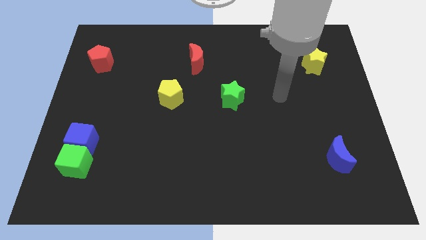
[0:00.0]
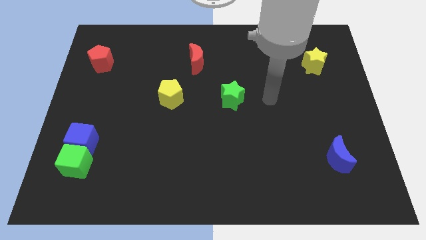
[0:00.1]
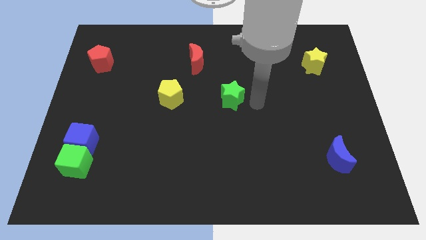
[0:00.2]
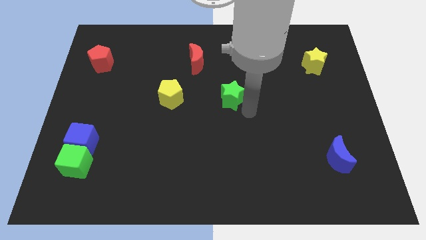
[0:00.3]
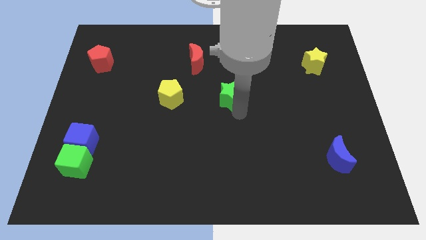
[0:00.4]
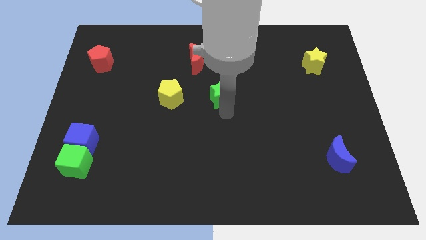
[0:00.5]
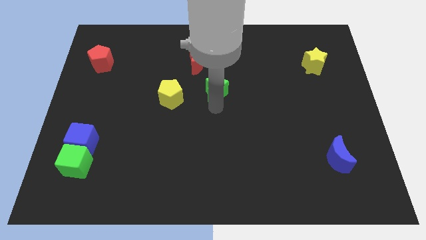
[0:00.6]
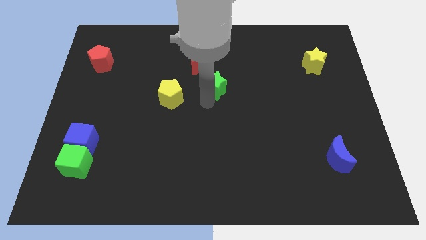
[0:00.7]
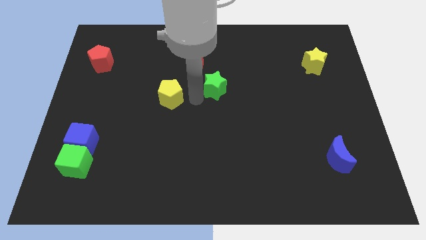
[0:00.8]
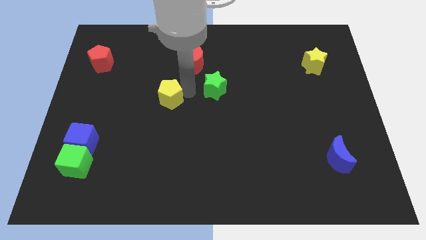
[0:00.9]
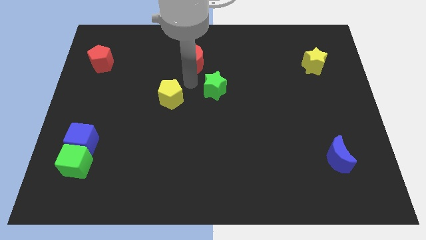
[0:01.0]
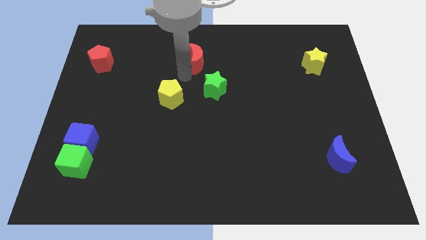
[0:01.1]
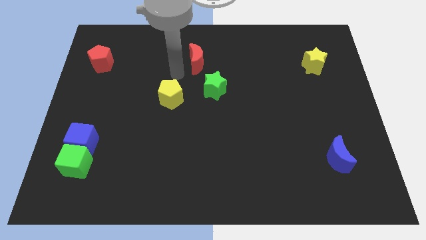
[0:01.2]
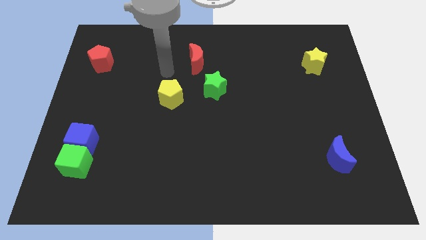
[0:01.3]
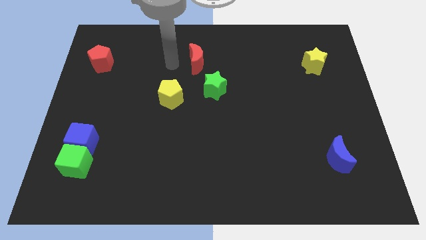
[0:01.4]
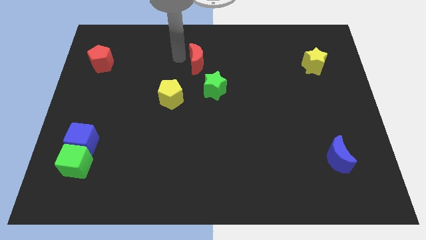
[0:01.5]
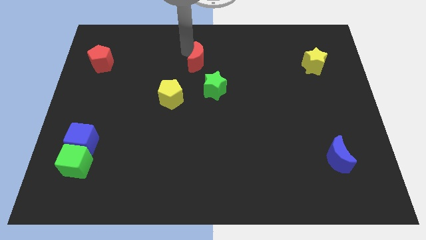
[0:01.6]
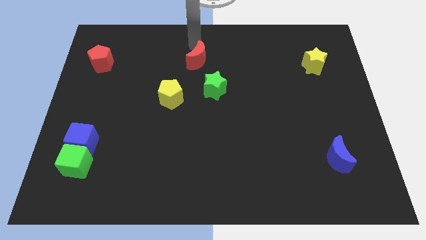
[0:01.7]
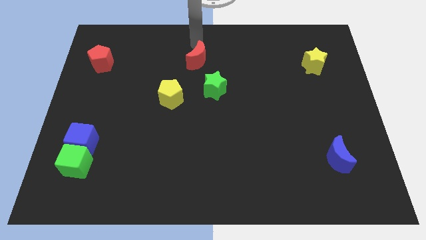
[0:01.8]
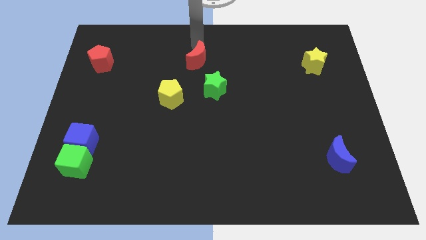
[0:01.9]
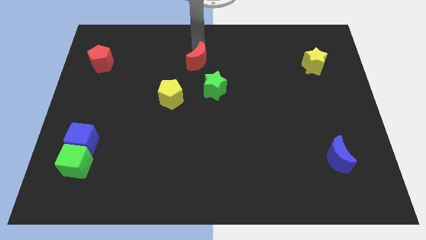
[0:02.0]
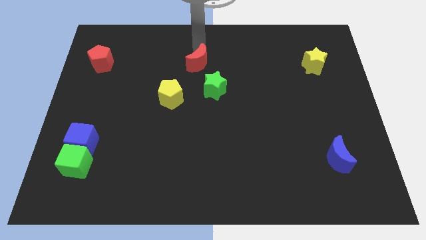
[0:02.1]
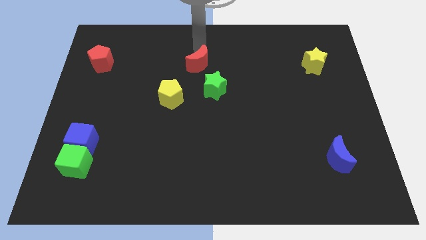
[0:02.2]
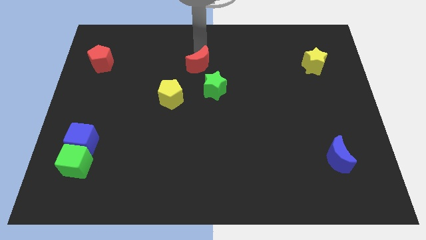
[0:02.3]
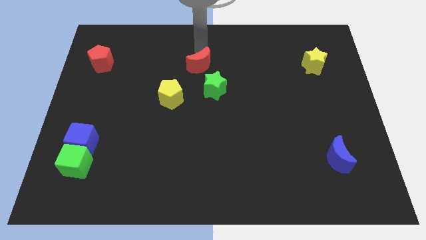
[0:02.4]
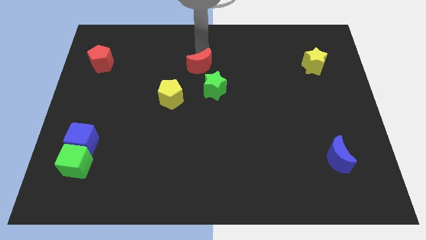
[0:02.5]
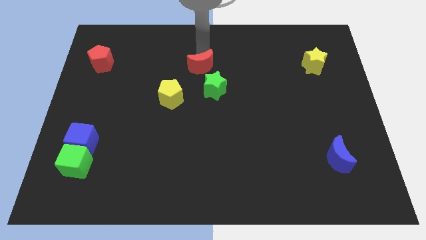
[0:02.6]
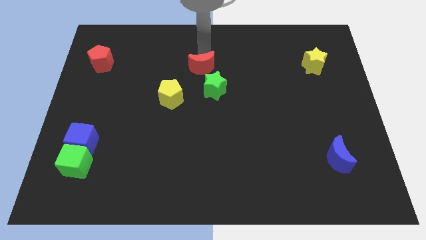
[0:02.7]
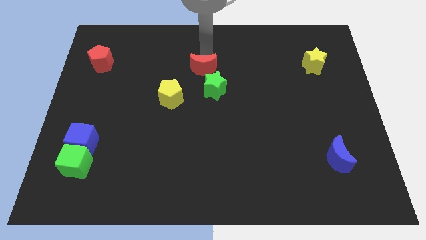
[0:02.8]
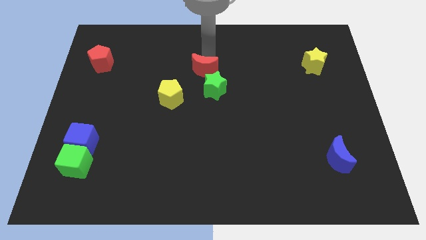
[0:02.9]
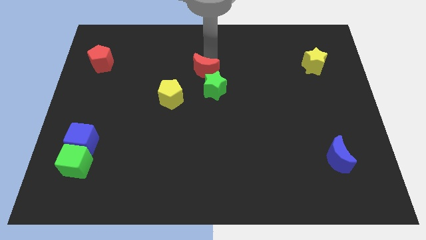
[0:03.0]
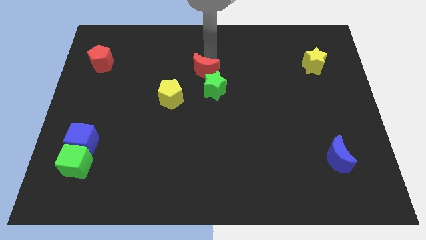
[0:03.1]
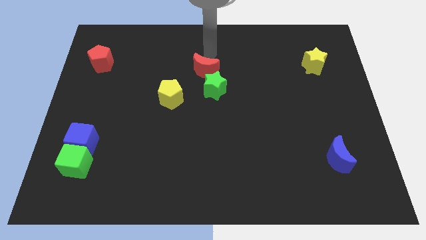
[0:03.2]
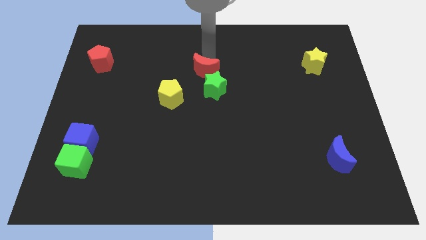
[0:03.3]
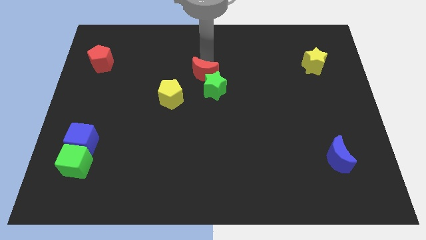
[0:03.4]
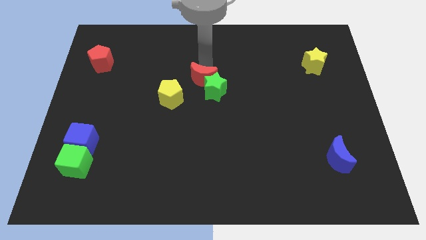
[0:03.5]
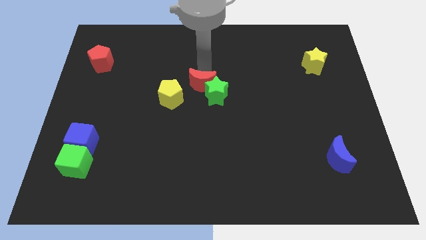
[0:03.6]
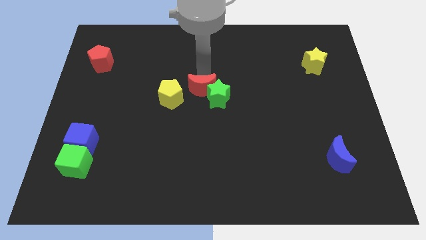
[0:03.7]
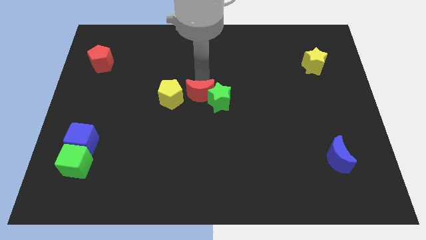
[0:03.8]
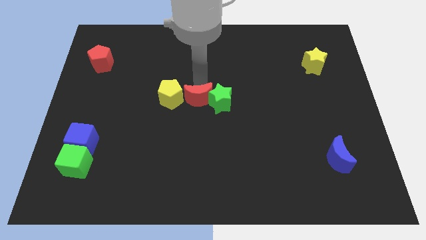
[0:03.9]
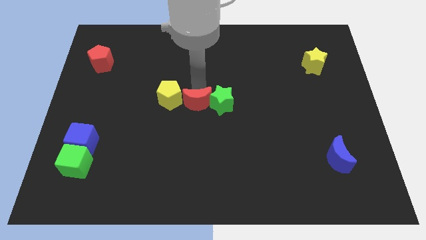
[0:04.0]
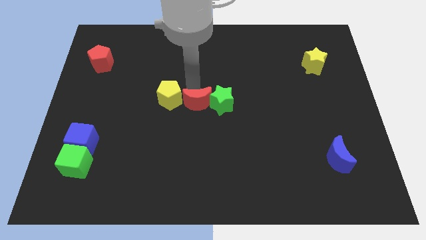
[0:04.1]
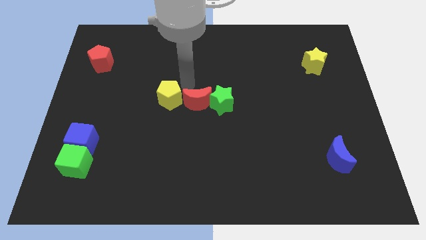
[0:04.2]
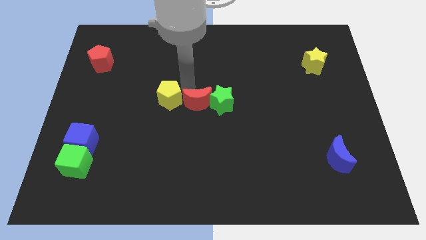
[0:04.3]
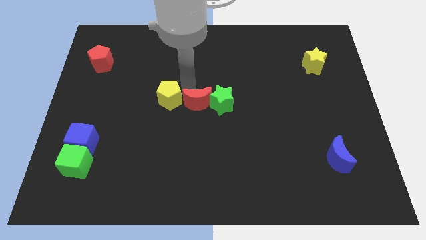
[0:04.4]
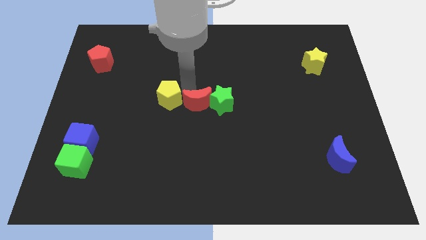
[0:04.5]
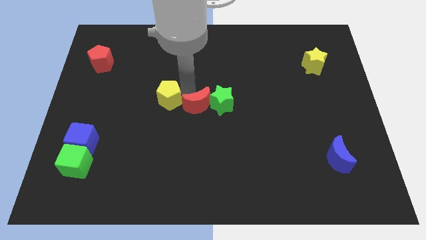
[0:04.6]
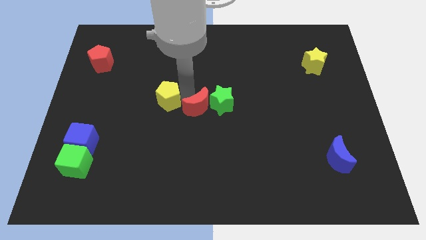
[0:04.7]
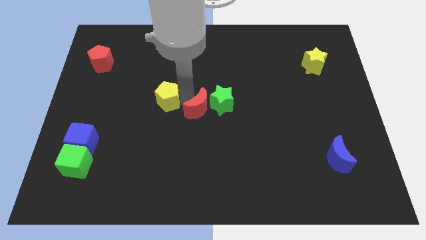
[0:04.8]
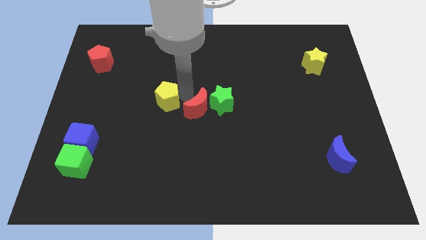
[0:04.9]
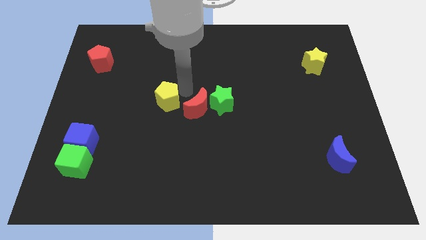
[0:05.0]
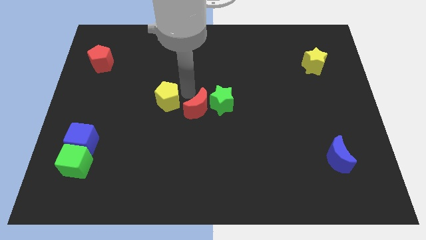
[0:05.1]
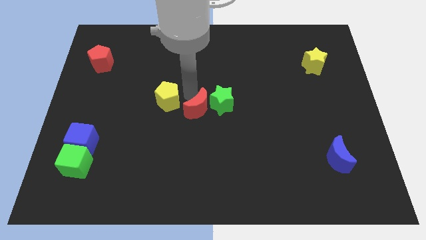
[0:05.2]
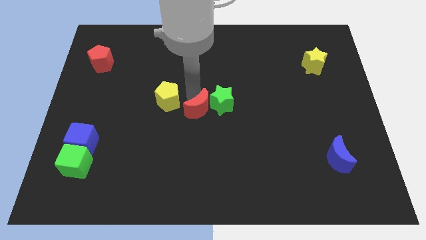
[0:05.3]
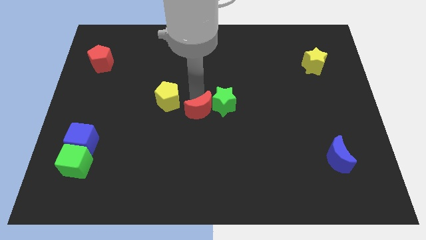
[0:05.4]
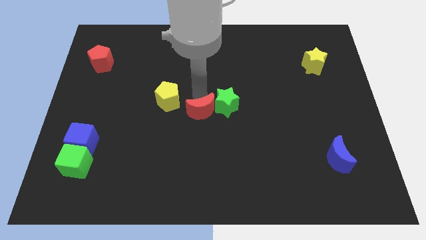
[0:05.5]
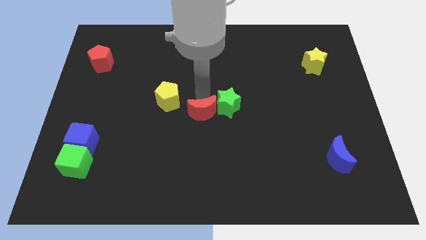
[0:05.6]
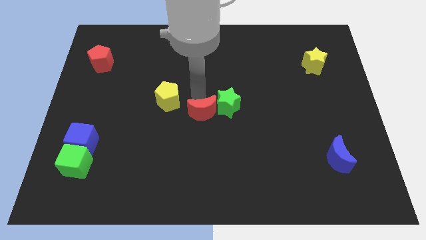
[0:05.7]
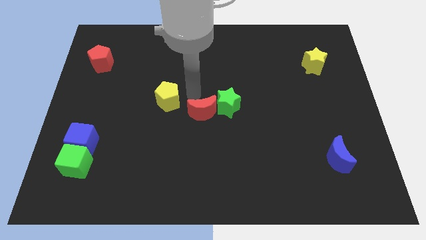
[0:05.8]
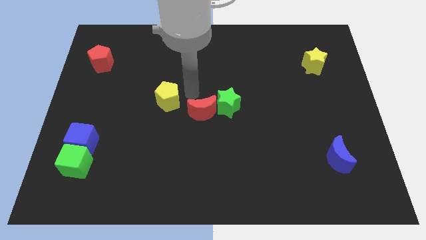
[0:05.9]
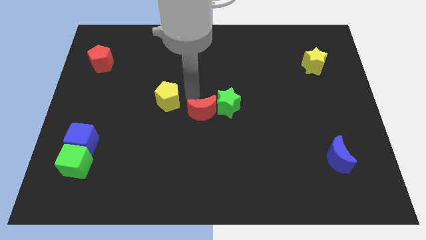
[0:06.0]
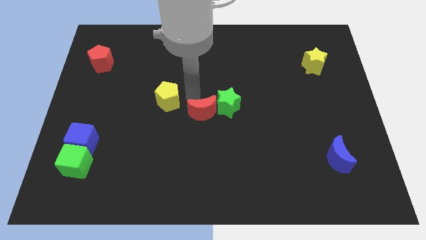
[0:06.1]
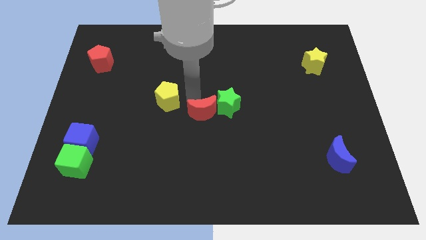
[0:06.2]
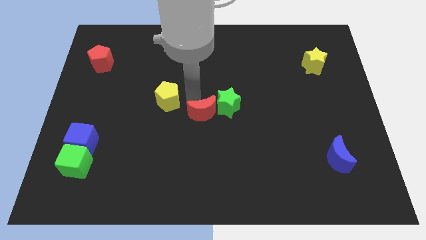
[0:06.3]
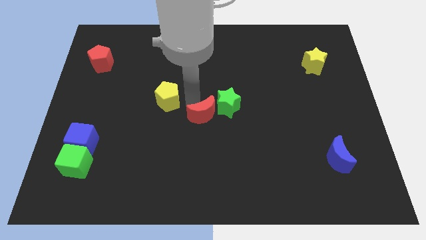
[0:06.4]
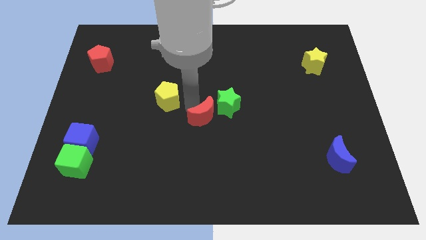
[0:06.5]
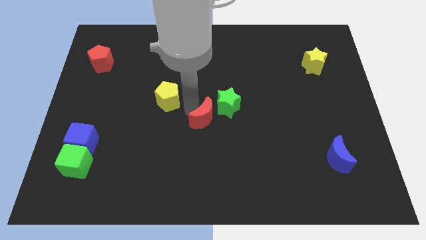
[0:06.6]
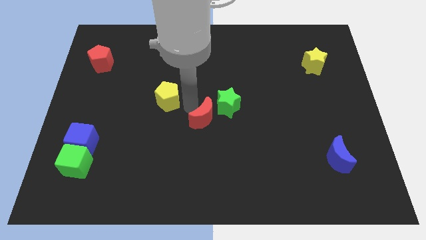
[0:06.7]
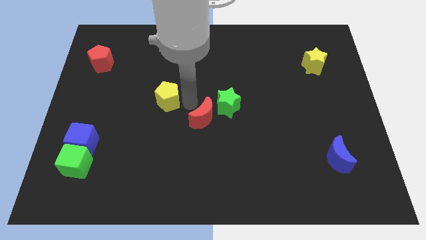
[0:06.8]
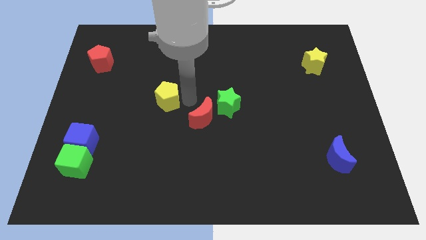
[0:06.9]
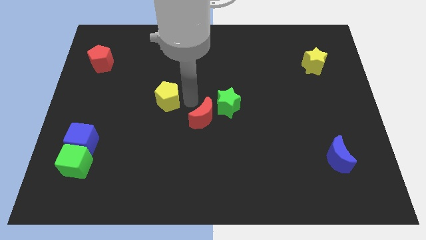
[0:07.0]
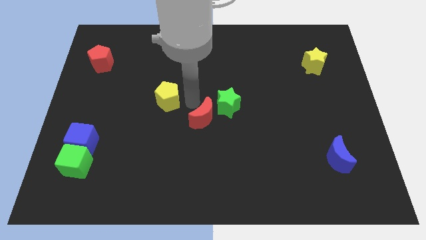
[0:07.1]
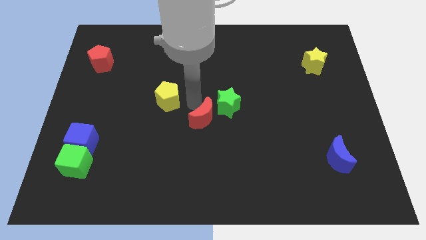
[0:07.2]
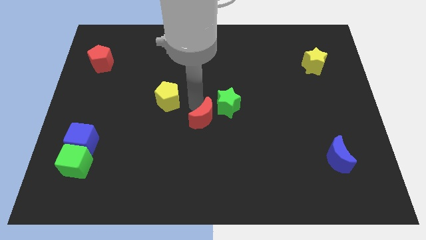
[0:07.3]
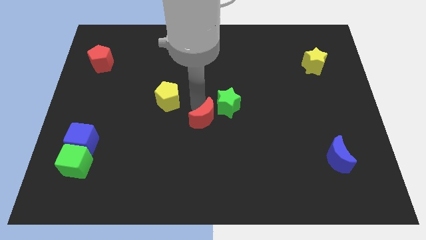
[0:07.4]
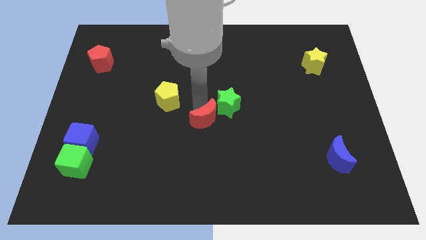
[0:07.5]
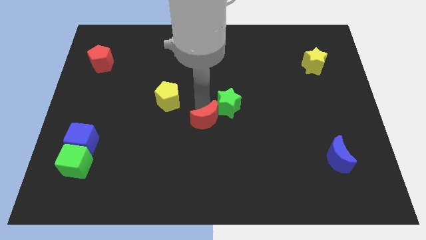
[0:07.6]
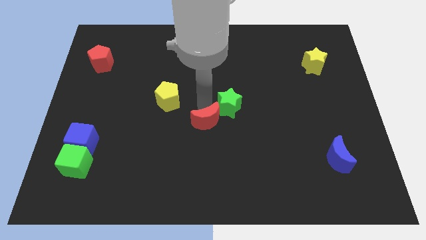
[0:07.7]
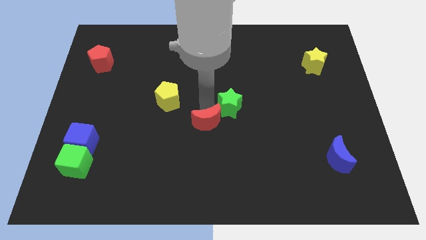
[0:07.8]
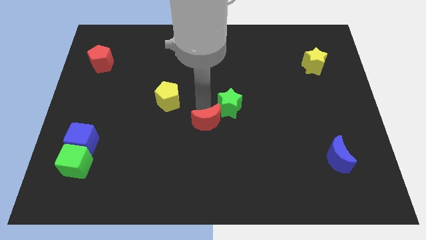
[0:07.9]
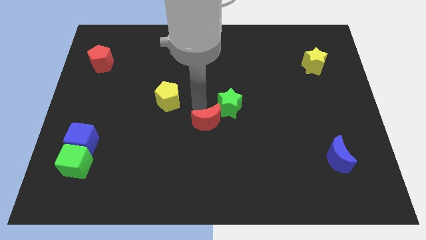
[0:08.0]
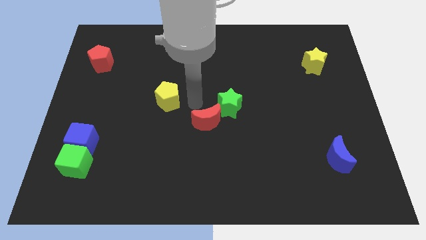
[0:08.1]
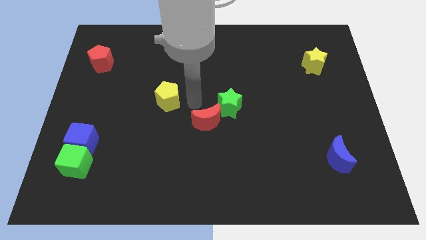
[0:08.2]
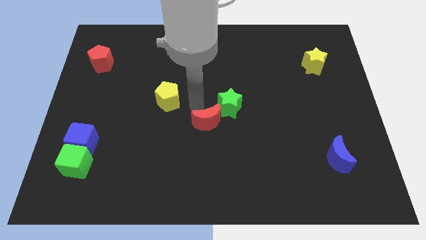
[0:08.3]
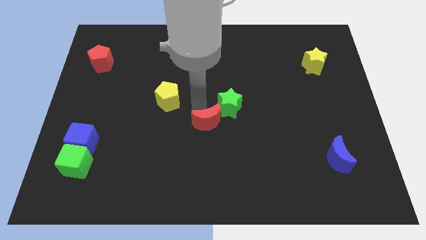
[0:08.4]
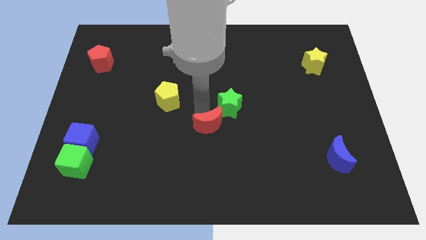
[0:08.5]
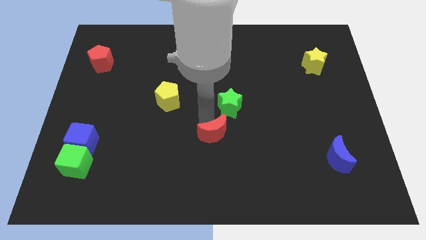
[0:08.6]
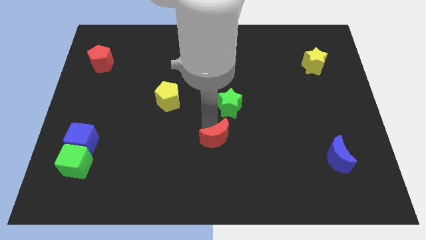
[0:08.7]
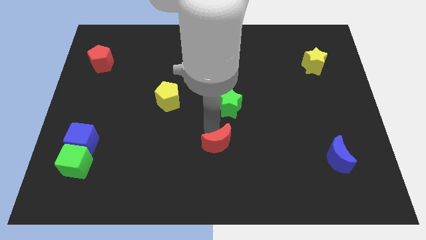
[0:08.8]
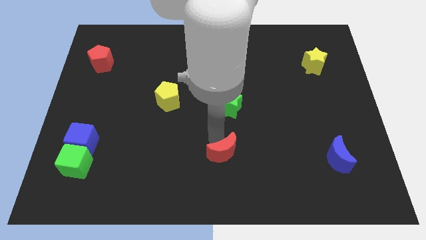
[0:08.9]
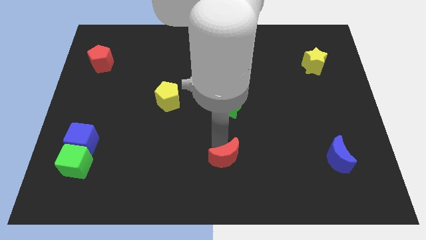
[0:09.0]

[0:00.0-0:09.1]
slide the red moon to the bottom side
